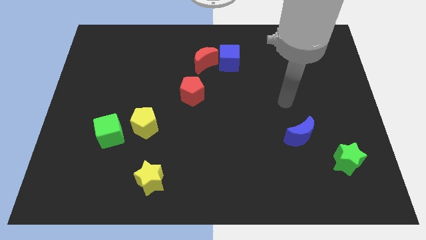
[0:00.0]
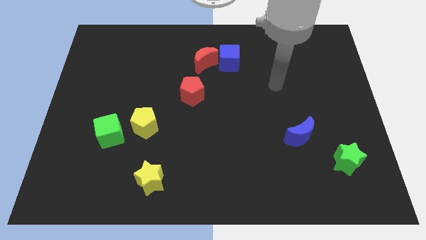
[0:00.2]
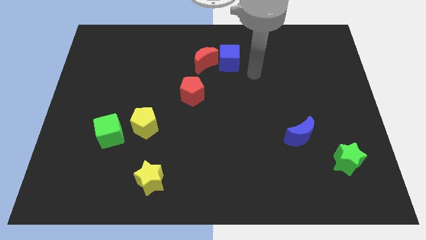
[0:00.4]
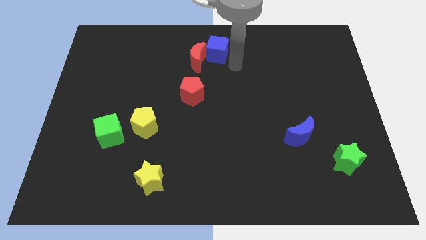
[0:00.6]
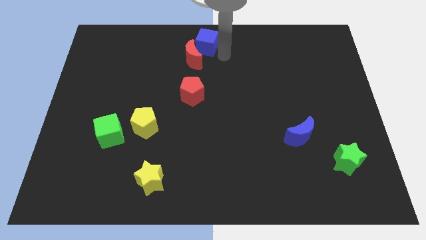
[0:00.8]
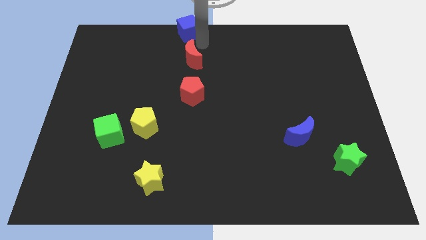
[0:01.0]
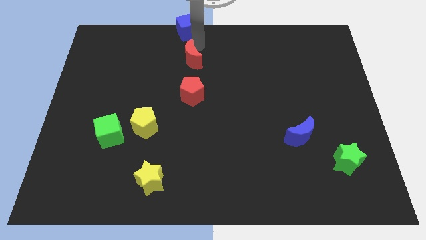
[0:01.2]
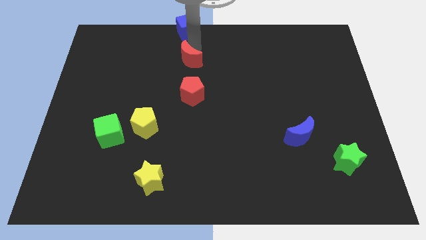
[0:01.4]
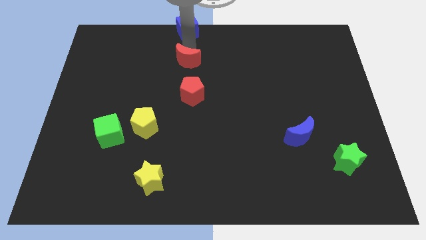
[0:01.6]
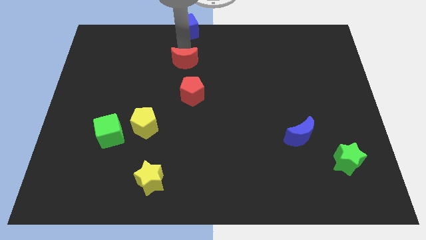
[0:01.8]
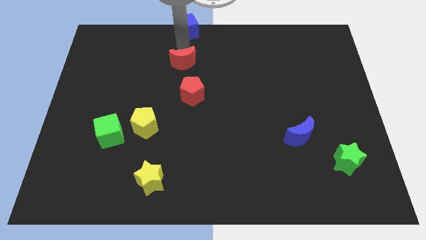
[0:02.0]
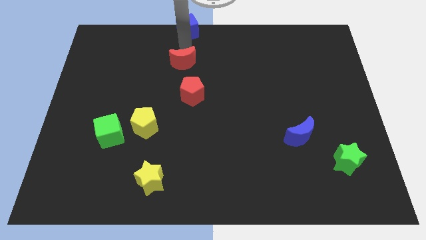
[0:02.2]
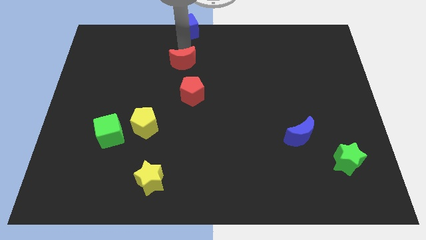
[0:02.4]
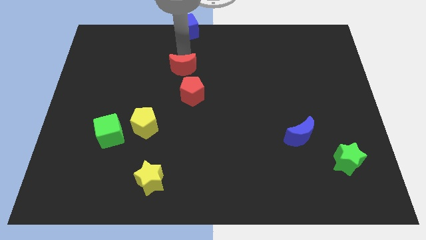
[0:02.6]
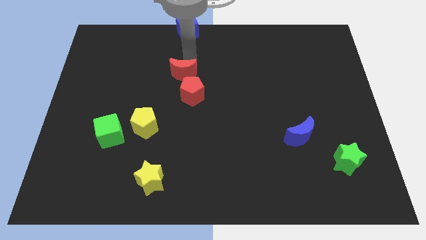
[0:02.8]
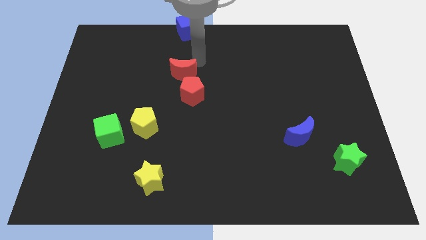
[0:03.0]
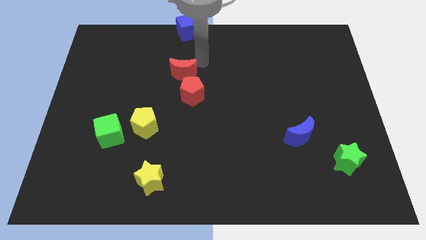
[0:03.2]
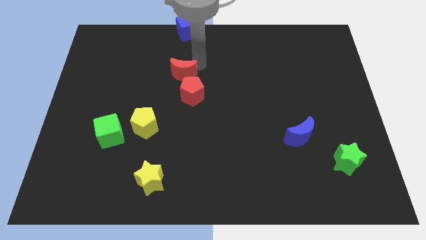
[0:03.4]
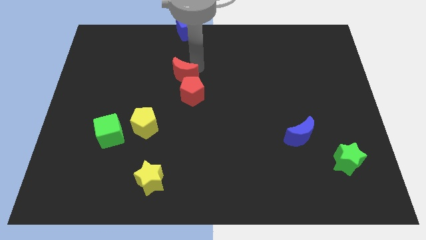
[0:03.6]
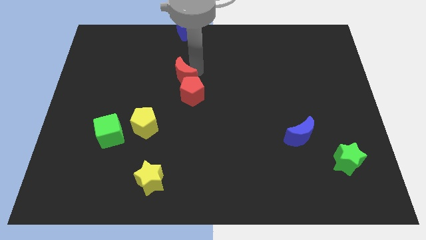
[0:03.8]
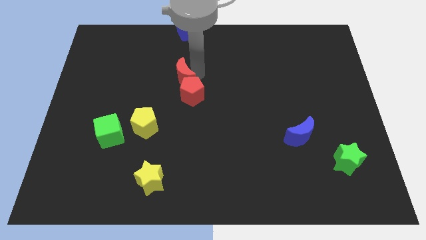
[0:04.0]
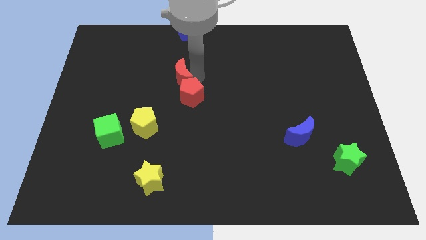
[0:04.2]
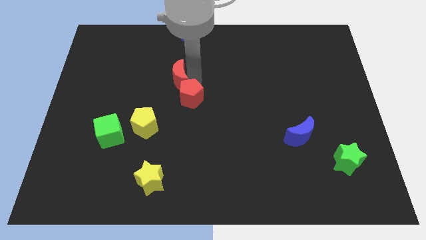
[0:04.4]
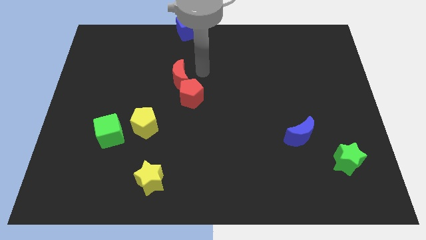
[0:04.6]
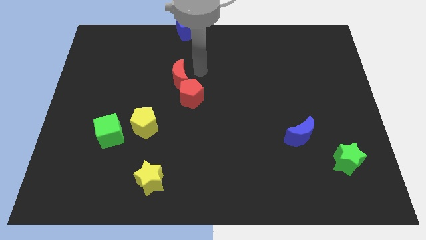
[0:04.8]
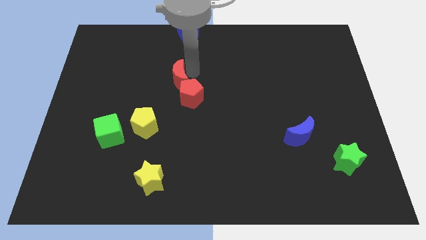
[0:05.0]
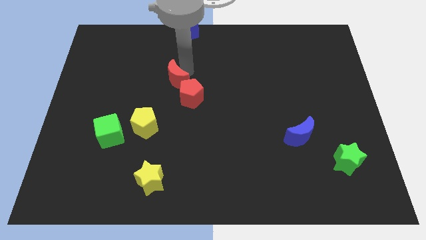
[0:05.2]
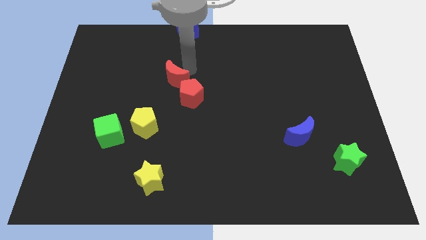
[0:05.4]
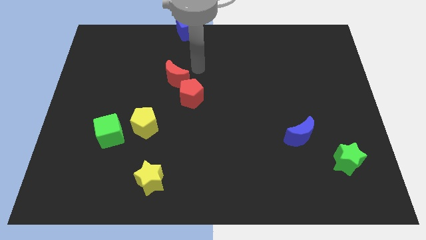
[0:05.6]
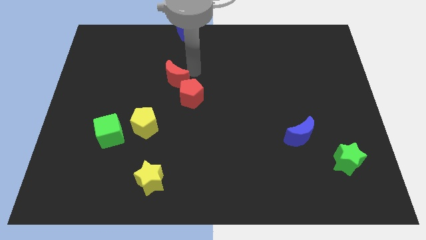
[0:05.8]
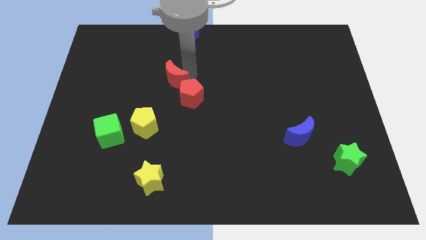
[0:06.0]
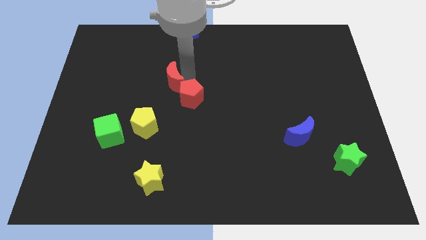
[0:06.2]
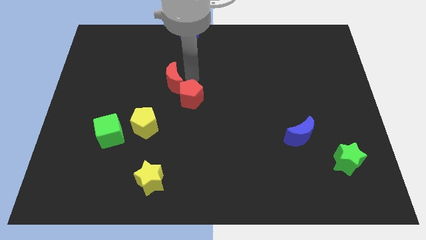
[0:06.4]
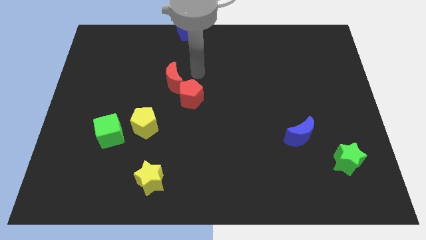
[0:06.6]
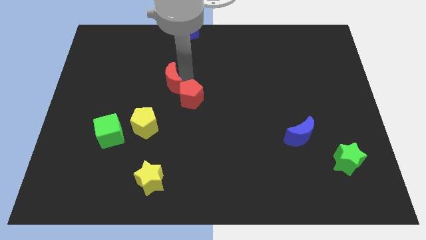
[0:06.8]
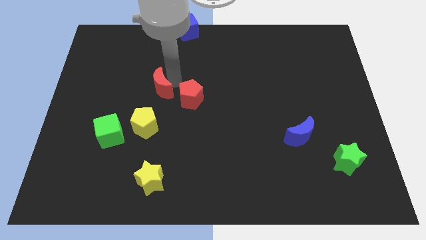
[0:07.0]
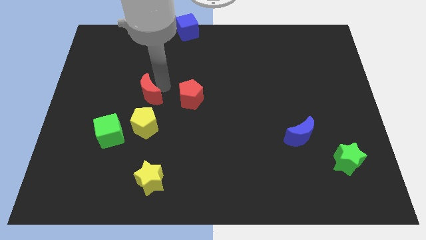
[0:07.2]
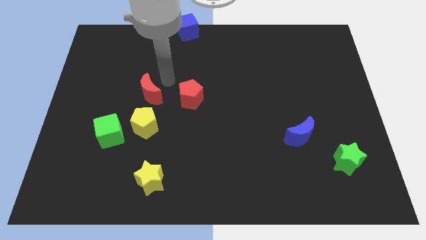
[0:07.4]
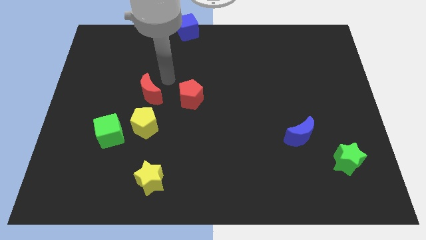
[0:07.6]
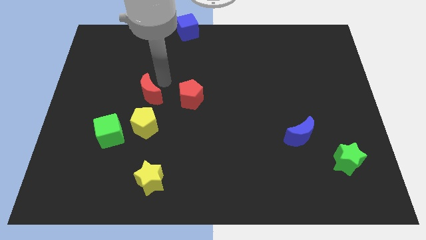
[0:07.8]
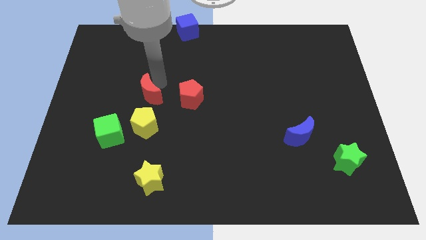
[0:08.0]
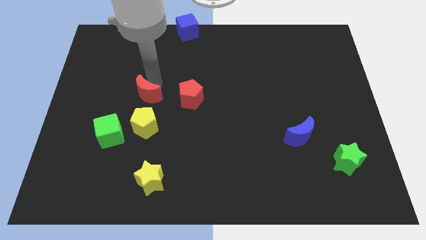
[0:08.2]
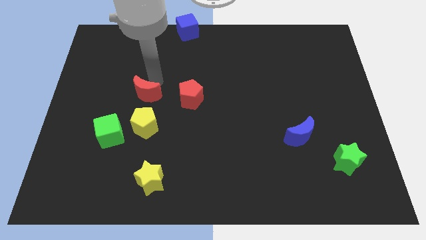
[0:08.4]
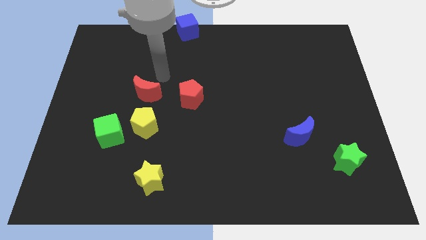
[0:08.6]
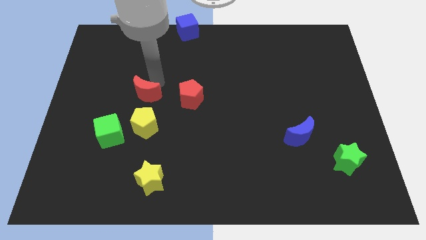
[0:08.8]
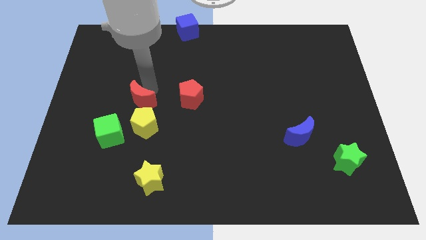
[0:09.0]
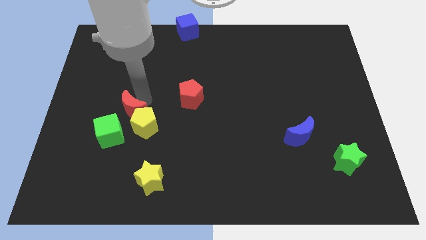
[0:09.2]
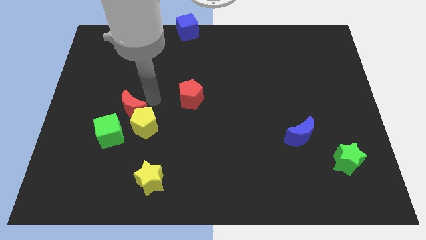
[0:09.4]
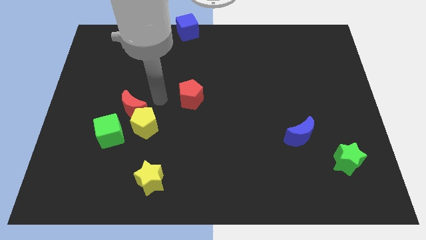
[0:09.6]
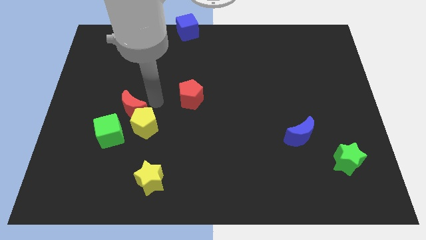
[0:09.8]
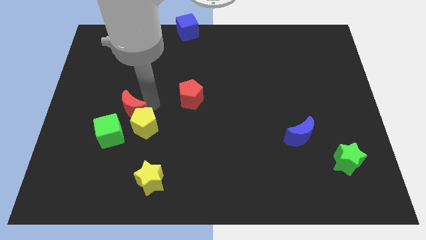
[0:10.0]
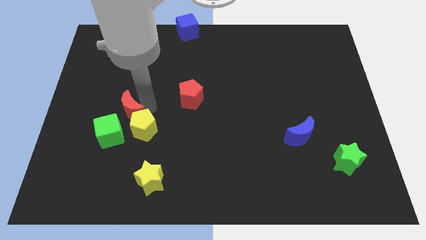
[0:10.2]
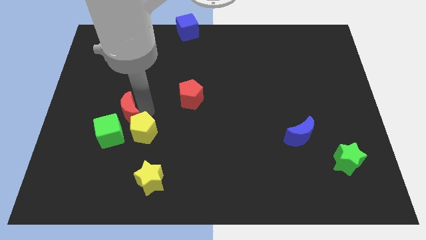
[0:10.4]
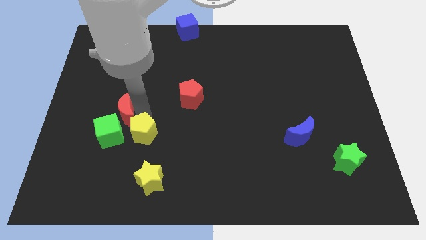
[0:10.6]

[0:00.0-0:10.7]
push the red moon towards the green cube

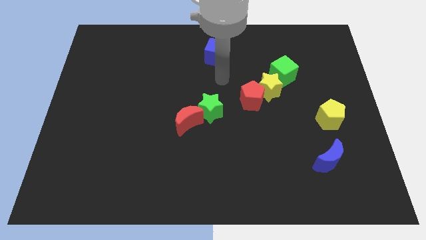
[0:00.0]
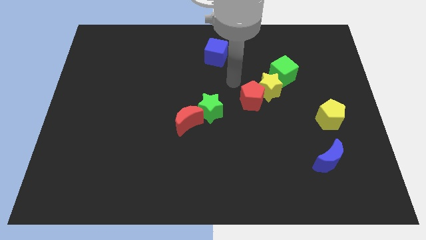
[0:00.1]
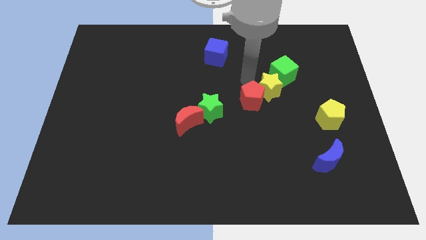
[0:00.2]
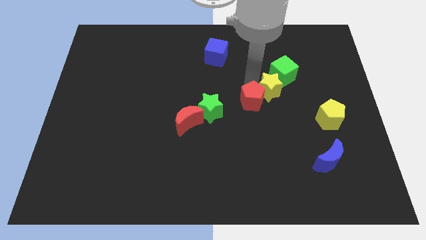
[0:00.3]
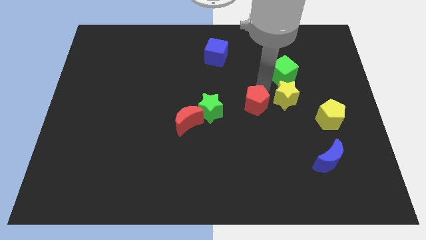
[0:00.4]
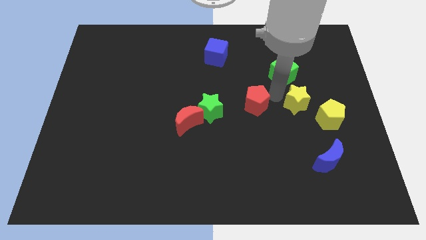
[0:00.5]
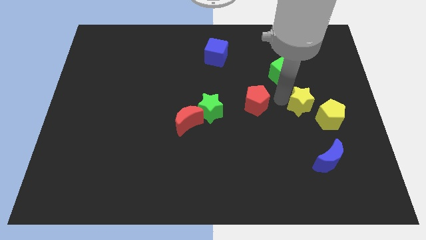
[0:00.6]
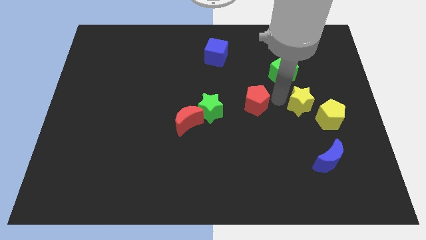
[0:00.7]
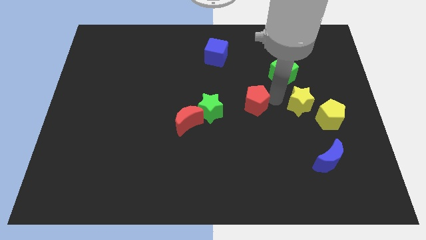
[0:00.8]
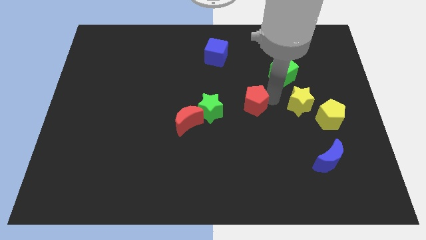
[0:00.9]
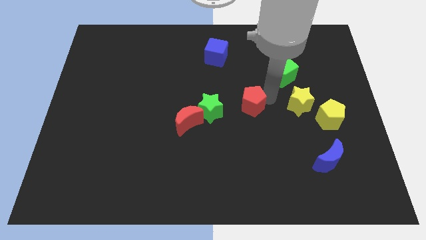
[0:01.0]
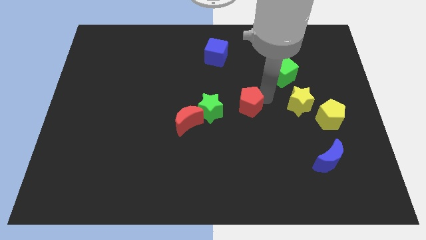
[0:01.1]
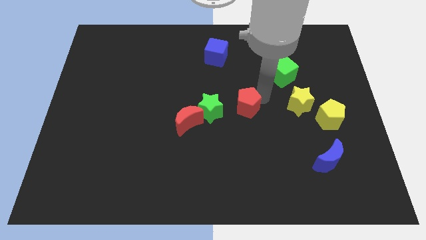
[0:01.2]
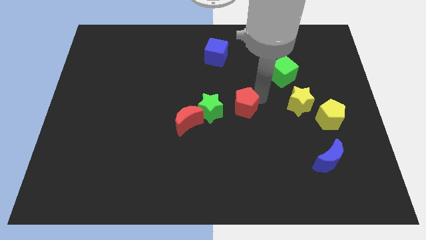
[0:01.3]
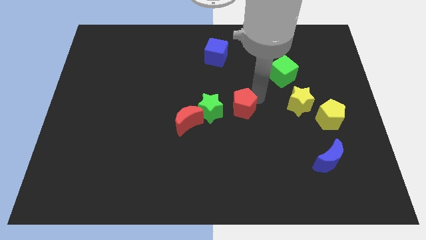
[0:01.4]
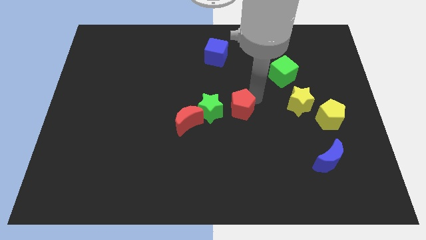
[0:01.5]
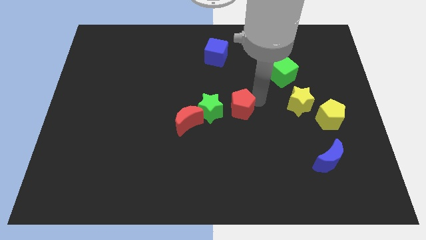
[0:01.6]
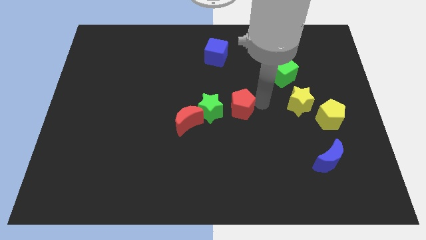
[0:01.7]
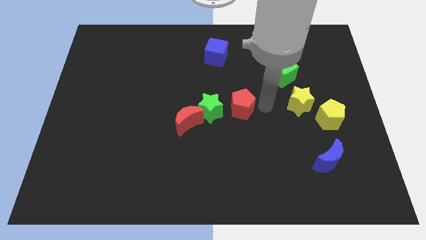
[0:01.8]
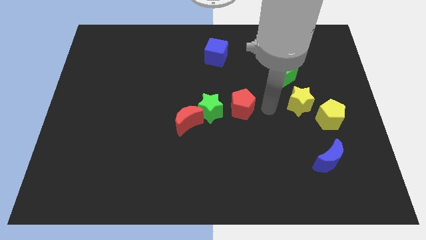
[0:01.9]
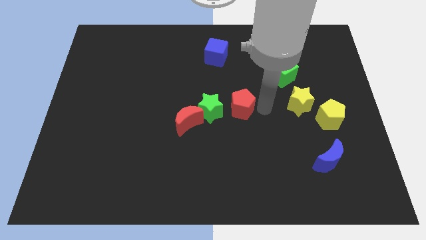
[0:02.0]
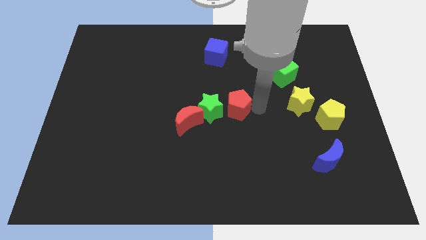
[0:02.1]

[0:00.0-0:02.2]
move the red pentagon towards the green star
